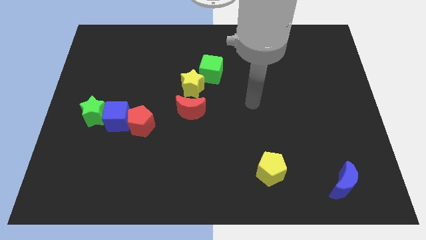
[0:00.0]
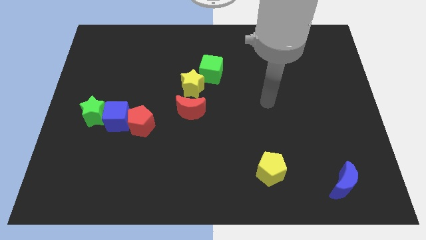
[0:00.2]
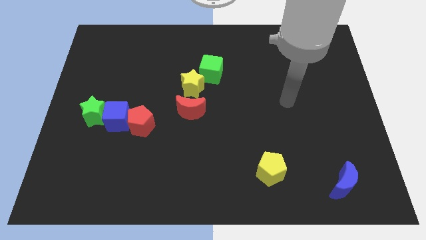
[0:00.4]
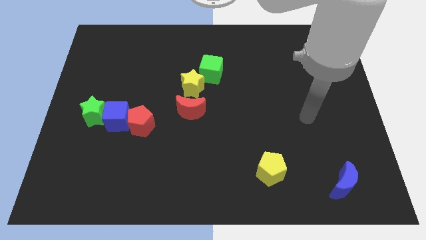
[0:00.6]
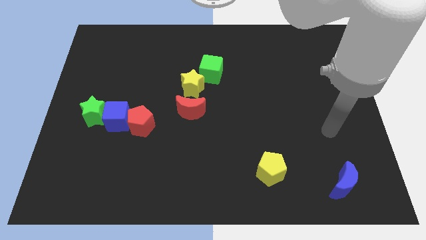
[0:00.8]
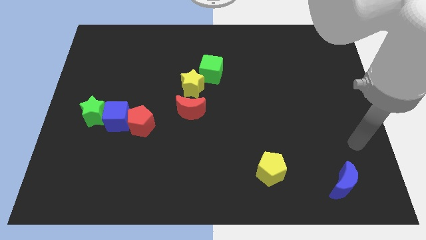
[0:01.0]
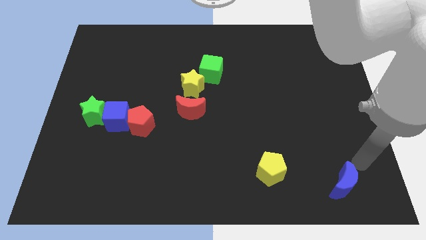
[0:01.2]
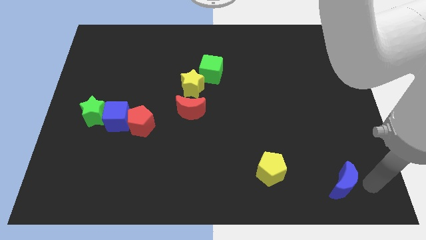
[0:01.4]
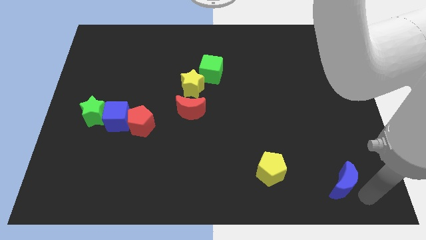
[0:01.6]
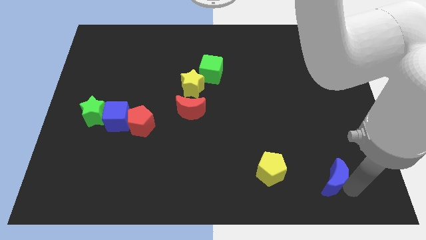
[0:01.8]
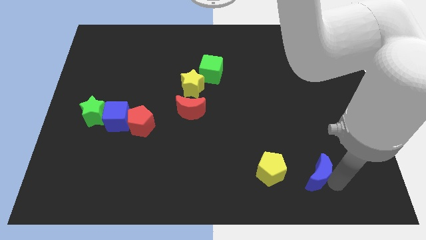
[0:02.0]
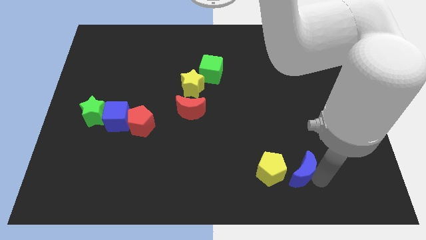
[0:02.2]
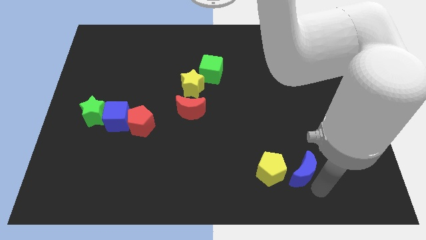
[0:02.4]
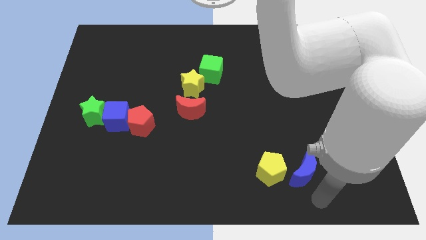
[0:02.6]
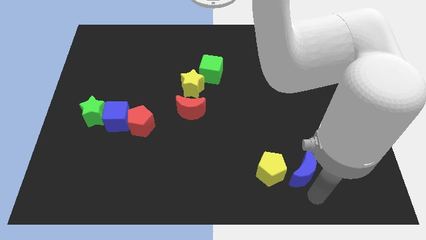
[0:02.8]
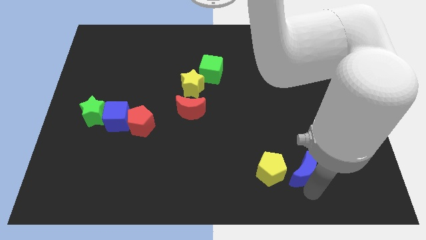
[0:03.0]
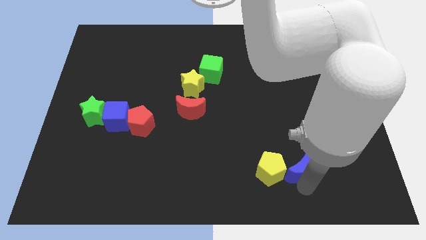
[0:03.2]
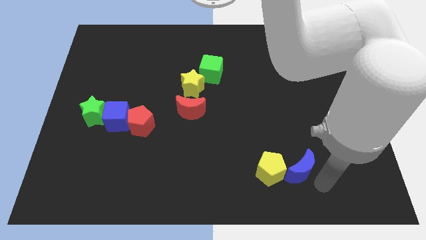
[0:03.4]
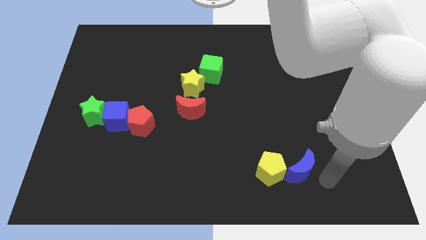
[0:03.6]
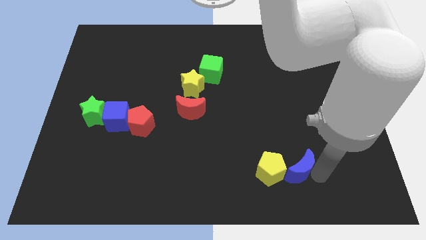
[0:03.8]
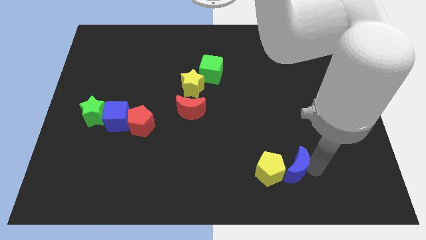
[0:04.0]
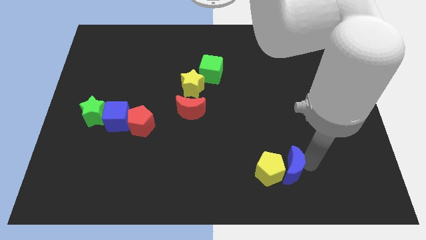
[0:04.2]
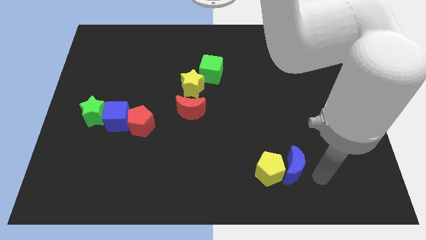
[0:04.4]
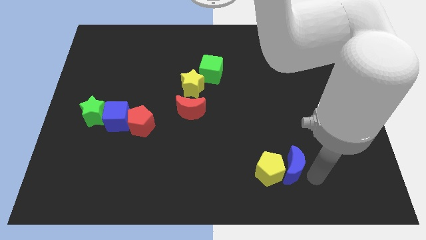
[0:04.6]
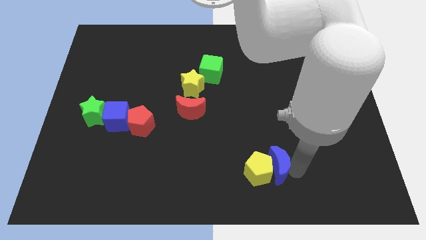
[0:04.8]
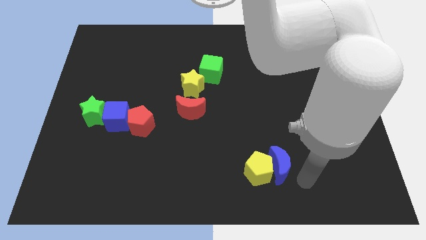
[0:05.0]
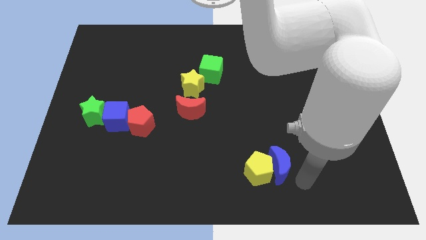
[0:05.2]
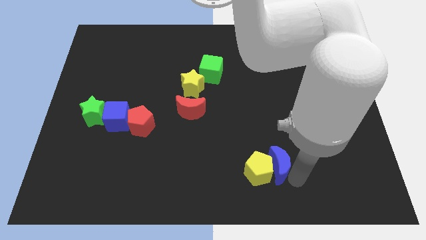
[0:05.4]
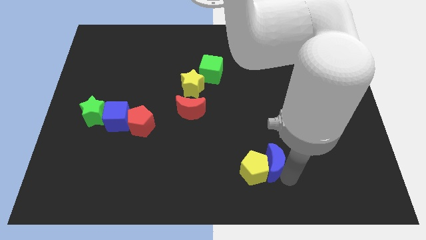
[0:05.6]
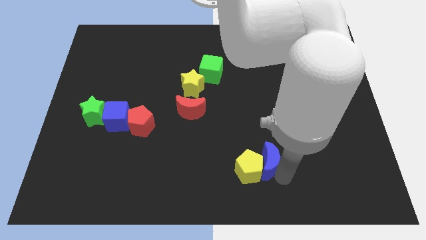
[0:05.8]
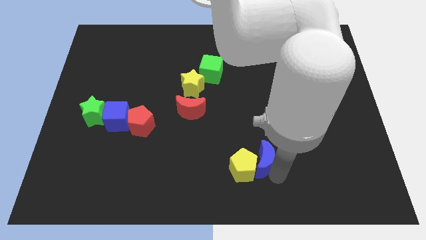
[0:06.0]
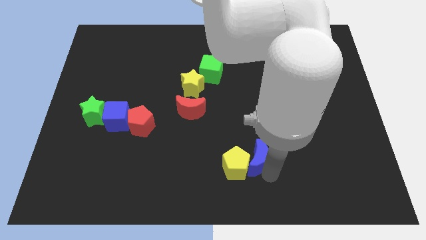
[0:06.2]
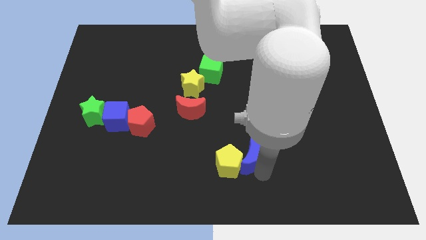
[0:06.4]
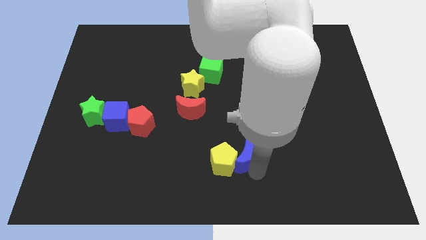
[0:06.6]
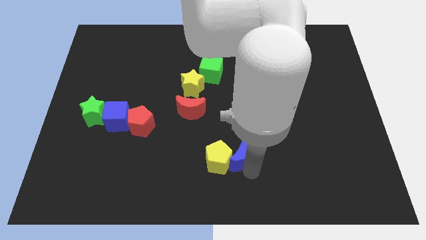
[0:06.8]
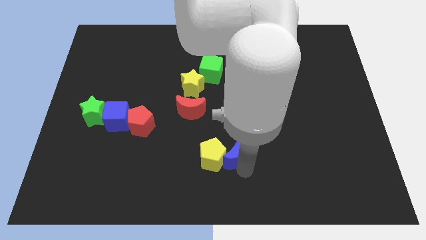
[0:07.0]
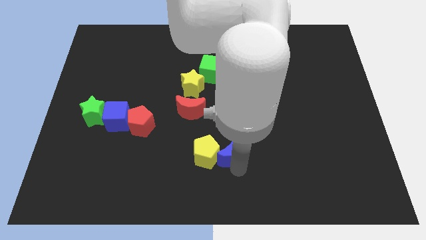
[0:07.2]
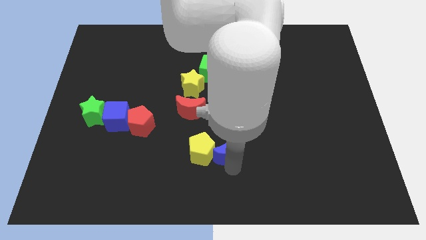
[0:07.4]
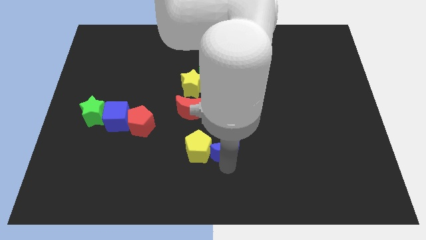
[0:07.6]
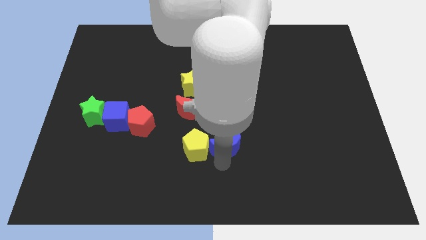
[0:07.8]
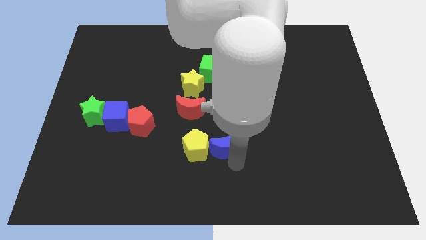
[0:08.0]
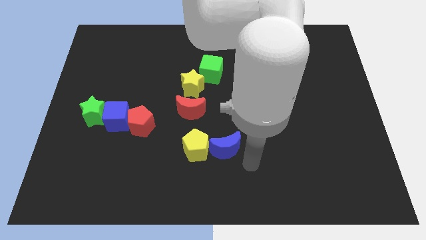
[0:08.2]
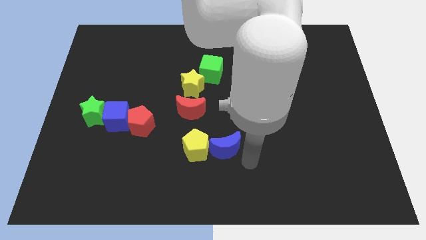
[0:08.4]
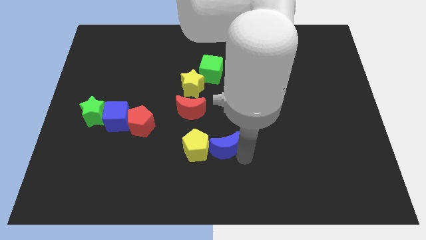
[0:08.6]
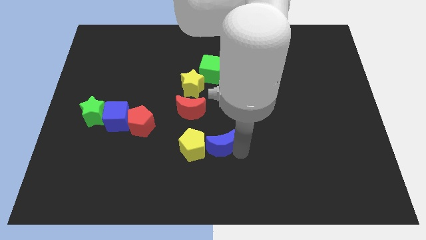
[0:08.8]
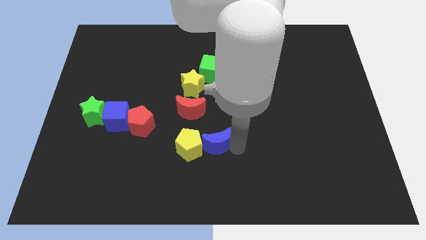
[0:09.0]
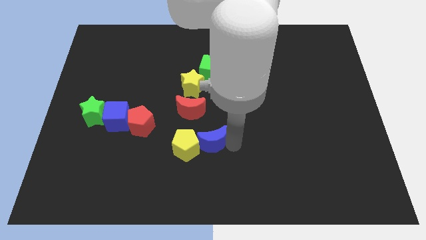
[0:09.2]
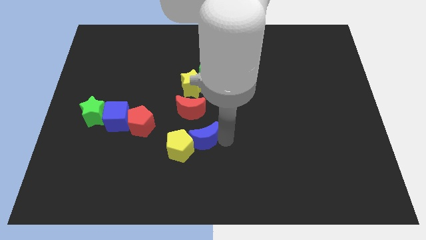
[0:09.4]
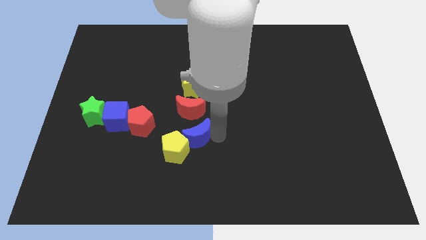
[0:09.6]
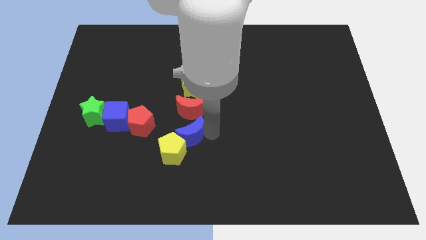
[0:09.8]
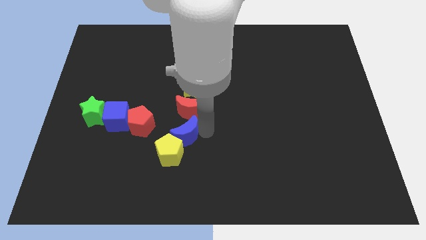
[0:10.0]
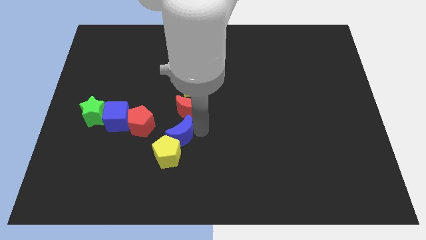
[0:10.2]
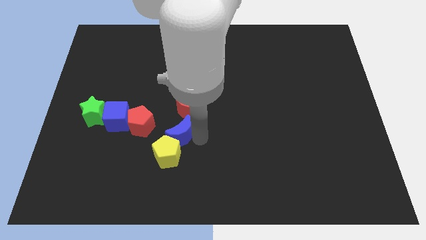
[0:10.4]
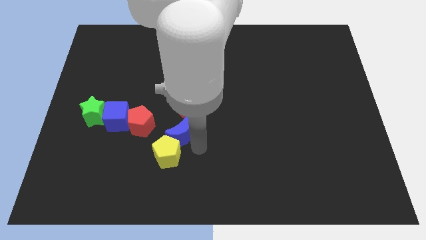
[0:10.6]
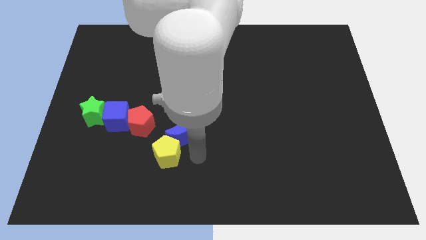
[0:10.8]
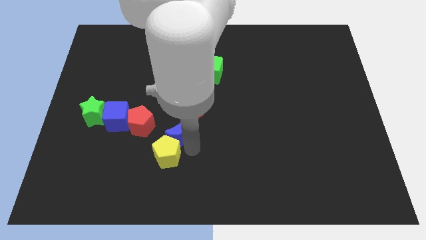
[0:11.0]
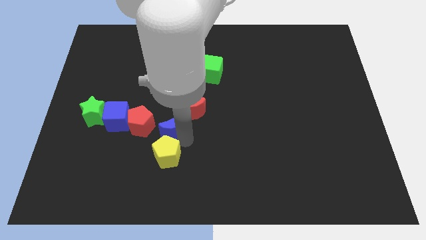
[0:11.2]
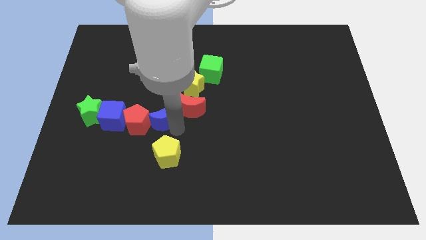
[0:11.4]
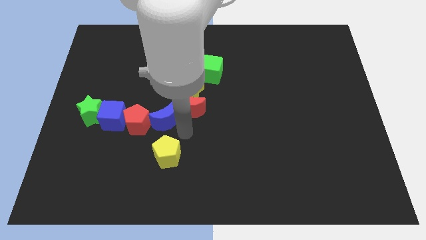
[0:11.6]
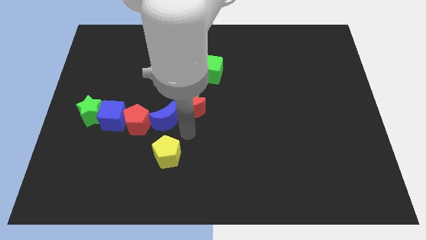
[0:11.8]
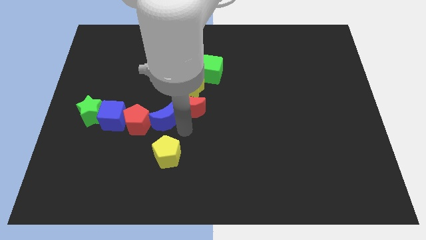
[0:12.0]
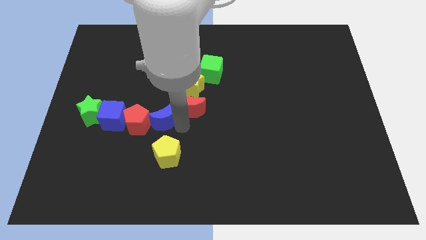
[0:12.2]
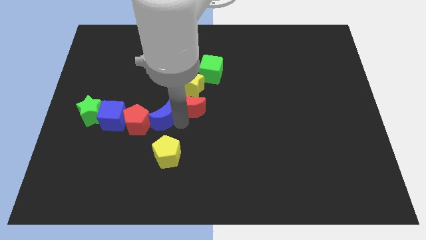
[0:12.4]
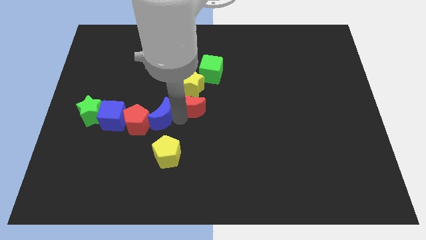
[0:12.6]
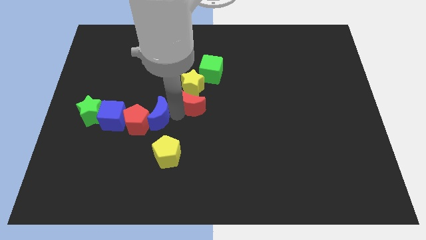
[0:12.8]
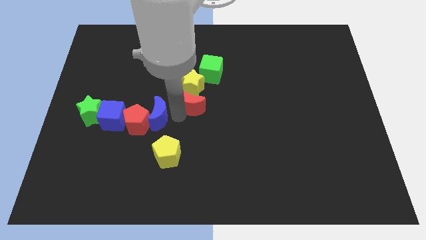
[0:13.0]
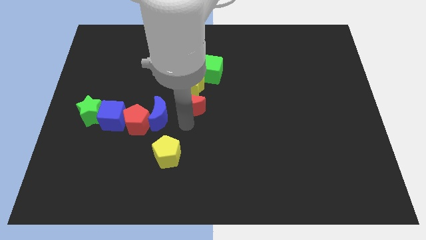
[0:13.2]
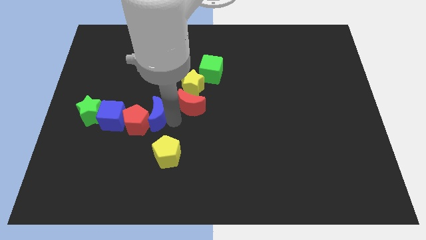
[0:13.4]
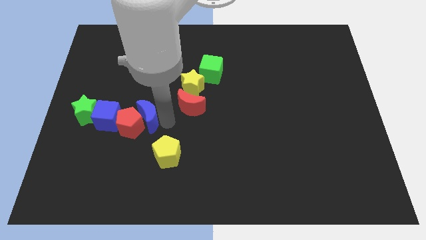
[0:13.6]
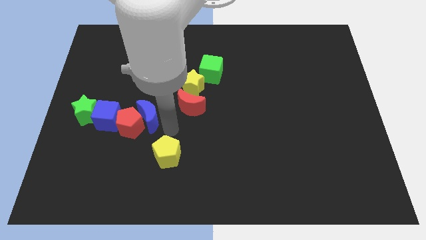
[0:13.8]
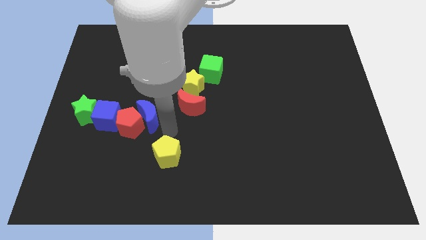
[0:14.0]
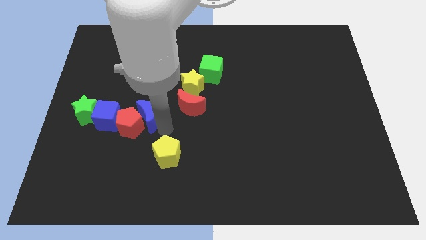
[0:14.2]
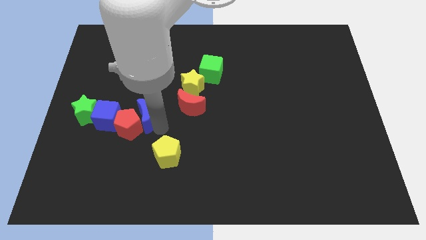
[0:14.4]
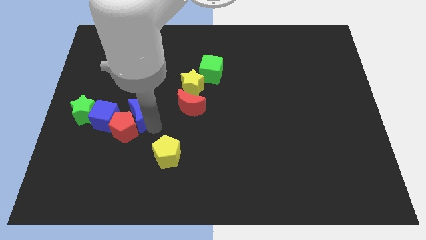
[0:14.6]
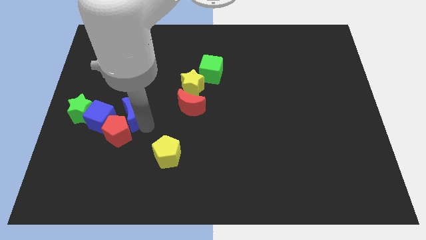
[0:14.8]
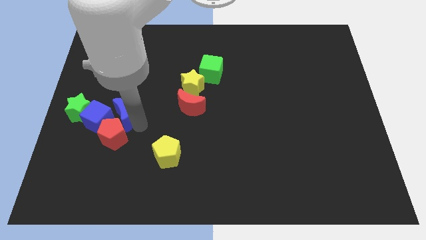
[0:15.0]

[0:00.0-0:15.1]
slide the blue moon to the blue cube
